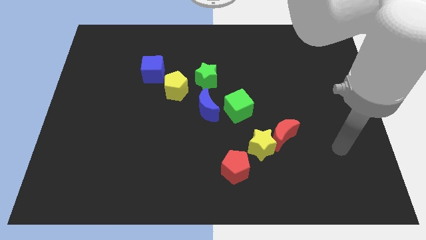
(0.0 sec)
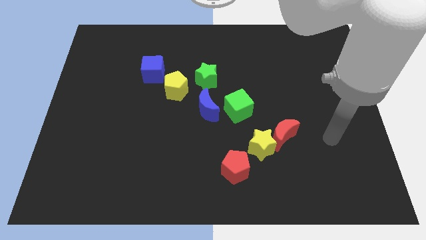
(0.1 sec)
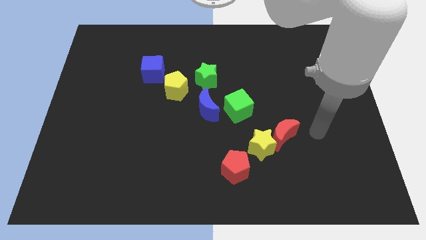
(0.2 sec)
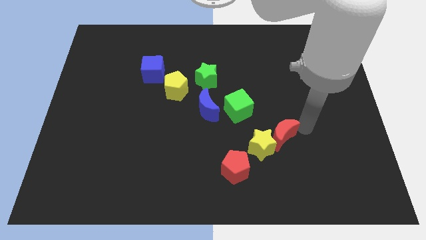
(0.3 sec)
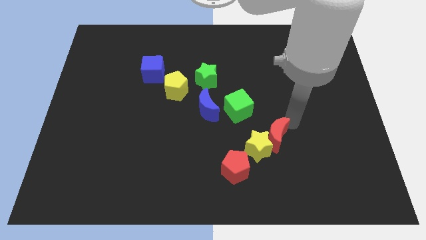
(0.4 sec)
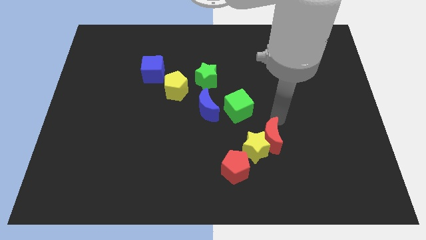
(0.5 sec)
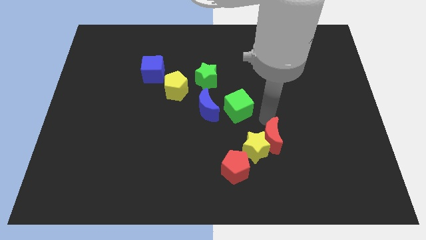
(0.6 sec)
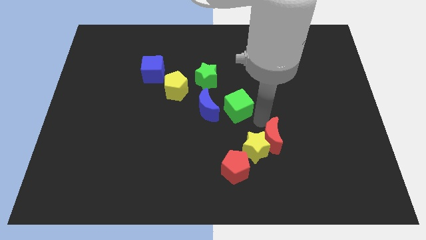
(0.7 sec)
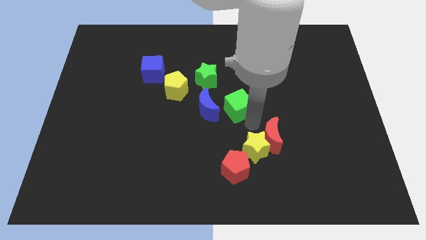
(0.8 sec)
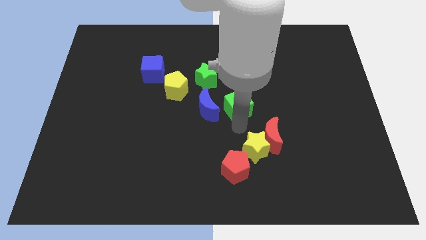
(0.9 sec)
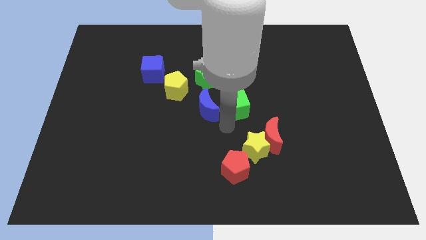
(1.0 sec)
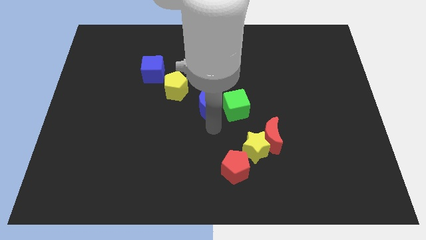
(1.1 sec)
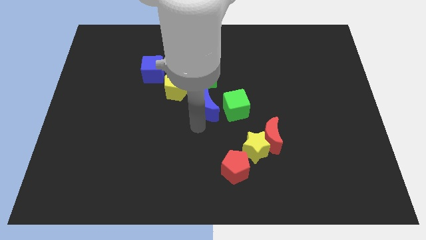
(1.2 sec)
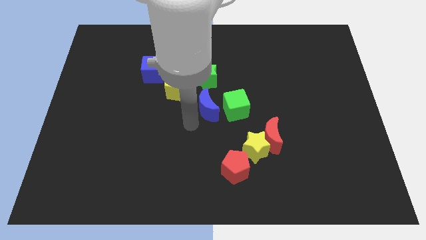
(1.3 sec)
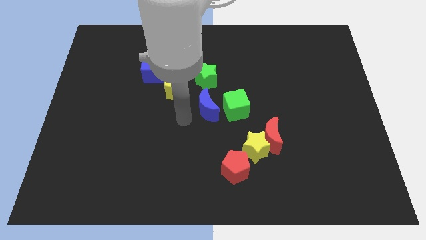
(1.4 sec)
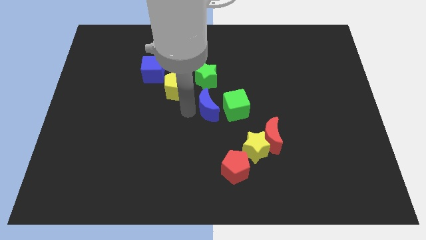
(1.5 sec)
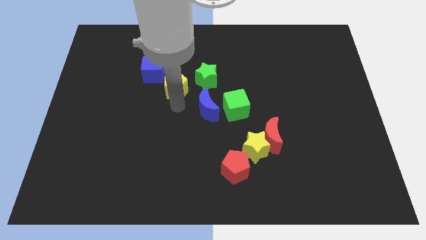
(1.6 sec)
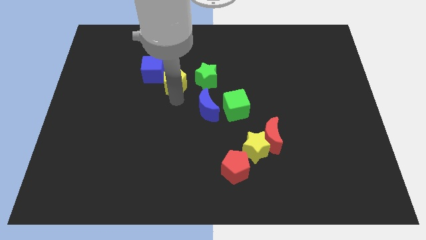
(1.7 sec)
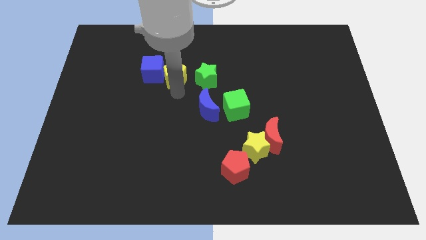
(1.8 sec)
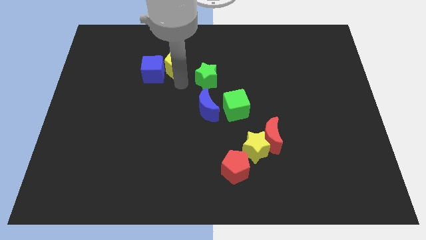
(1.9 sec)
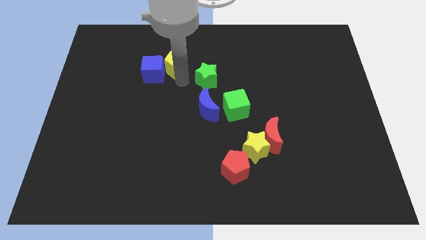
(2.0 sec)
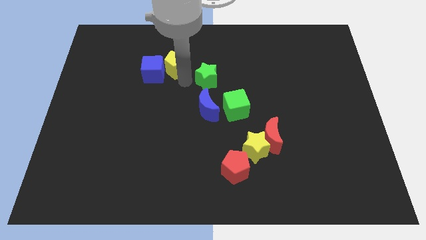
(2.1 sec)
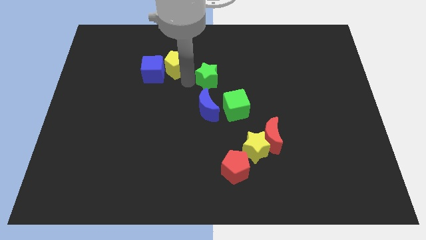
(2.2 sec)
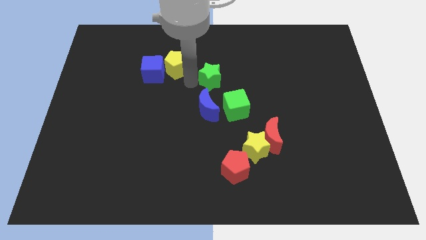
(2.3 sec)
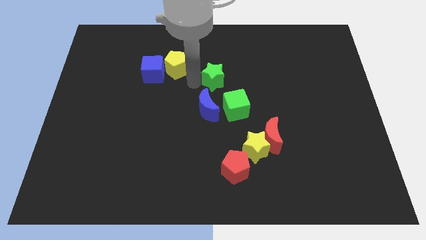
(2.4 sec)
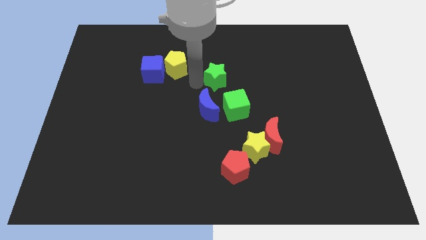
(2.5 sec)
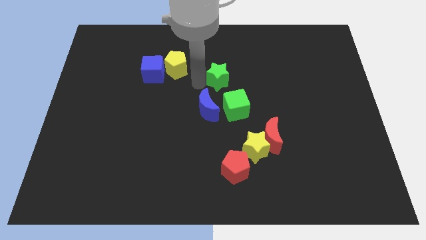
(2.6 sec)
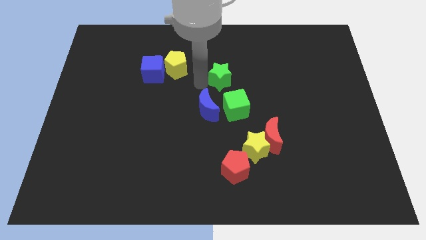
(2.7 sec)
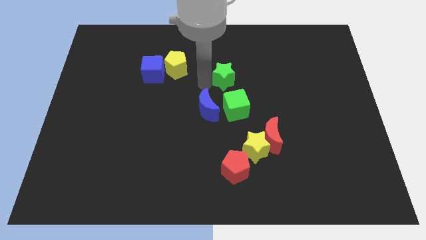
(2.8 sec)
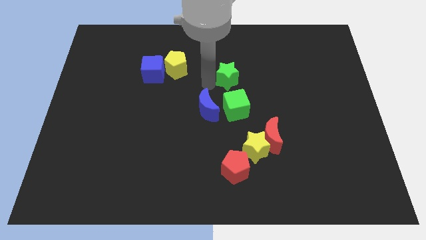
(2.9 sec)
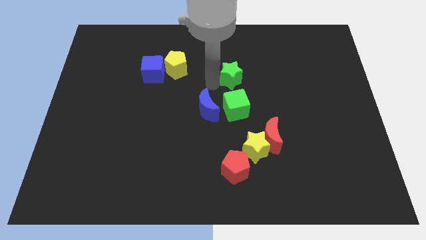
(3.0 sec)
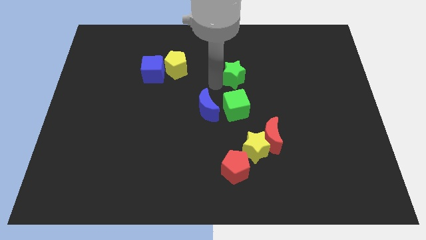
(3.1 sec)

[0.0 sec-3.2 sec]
move the green star a bit right

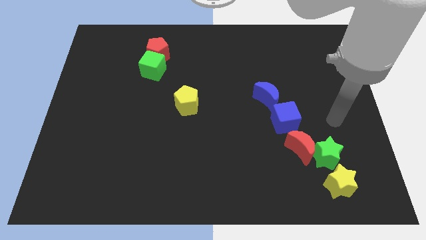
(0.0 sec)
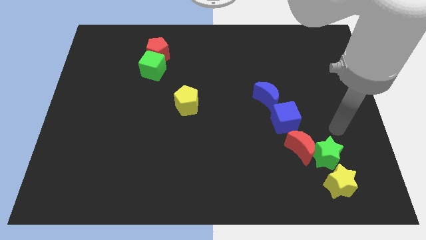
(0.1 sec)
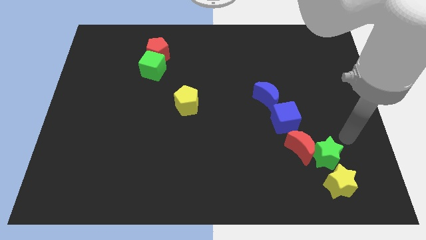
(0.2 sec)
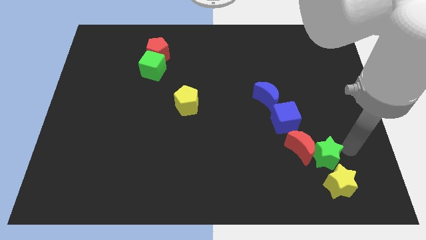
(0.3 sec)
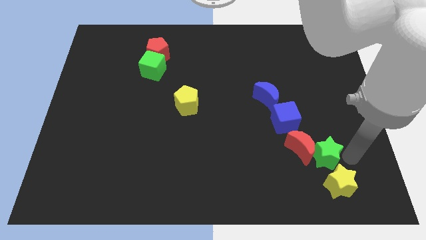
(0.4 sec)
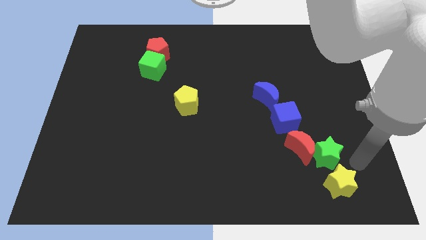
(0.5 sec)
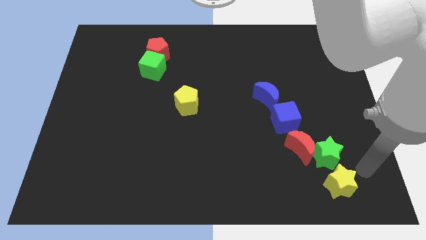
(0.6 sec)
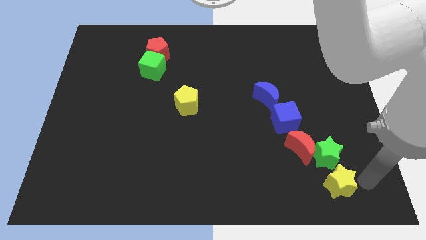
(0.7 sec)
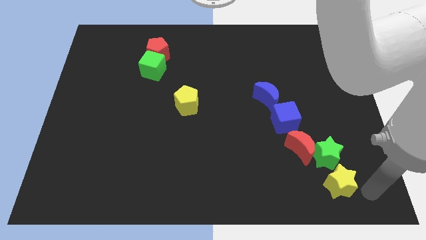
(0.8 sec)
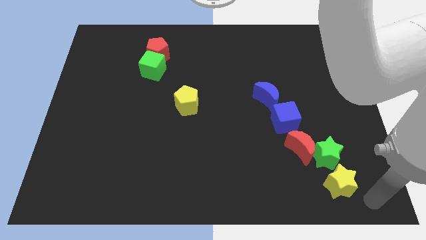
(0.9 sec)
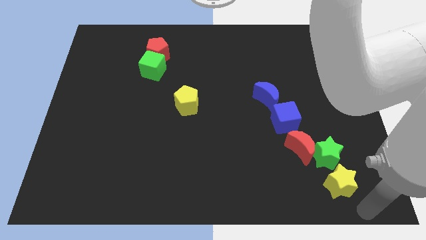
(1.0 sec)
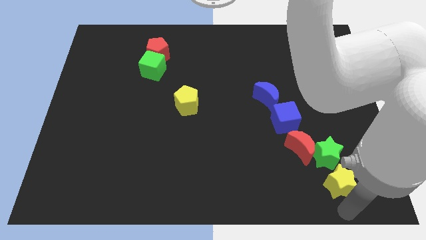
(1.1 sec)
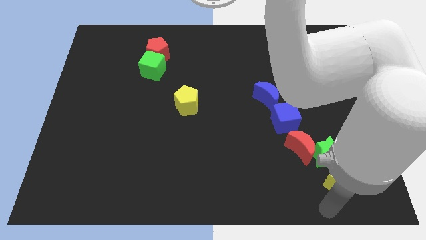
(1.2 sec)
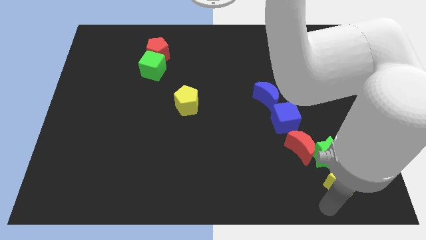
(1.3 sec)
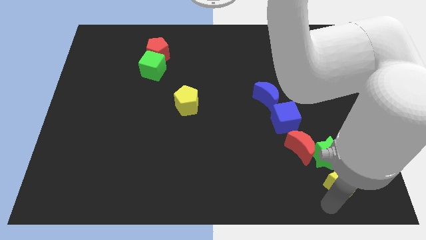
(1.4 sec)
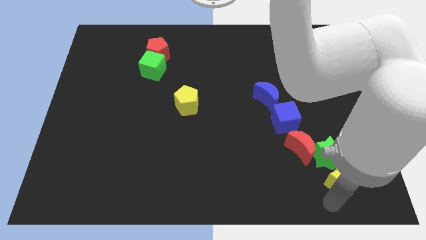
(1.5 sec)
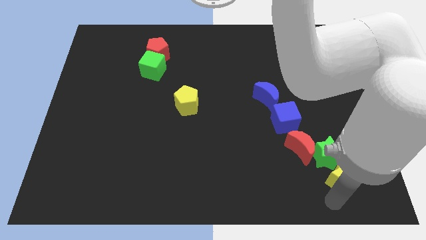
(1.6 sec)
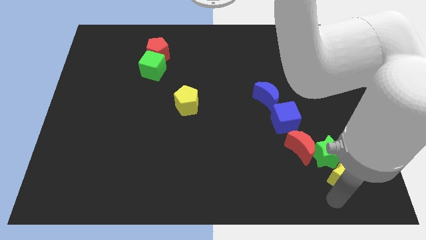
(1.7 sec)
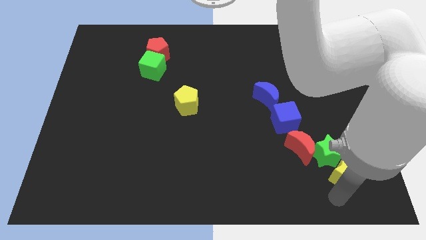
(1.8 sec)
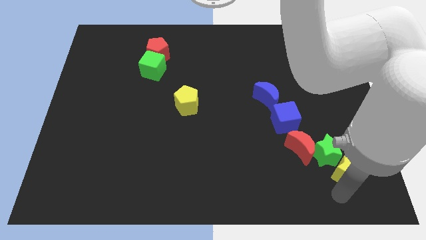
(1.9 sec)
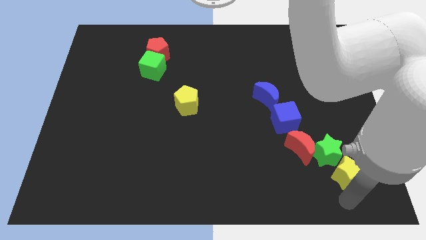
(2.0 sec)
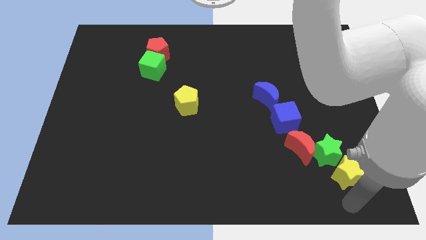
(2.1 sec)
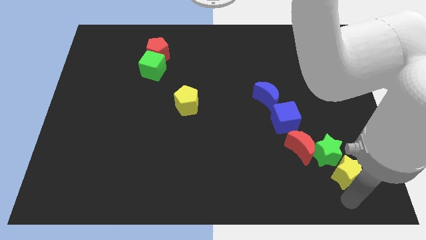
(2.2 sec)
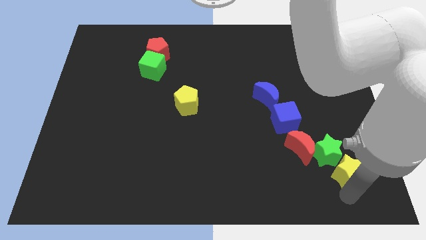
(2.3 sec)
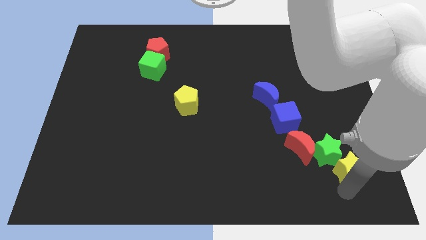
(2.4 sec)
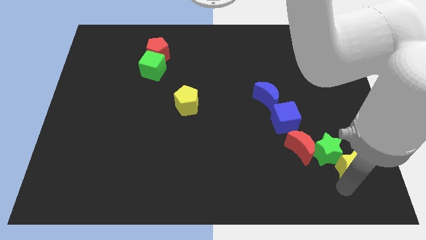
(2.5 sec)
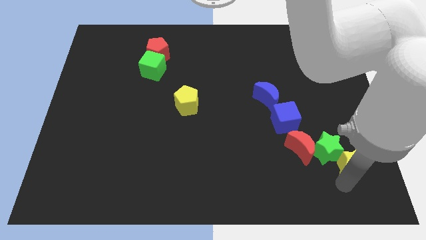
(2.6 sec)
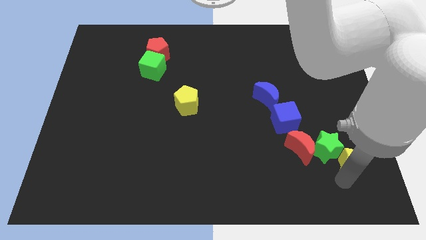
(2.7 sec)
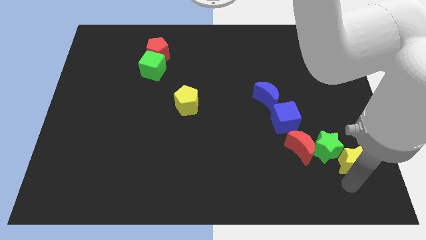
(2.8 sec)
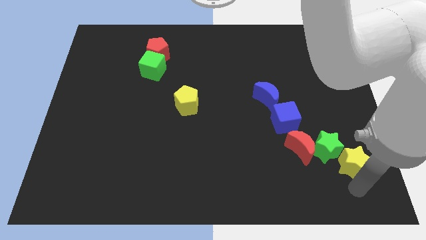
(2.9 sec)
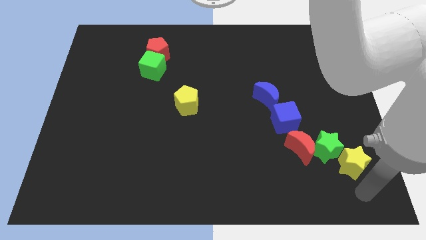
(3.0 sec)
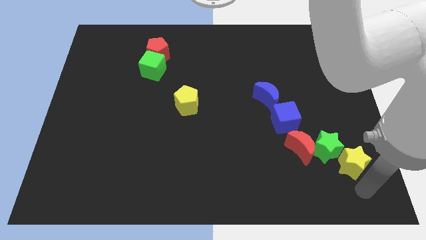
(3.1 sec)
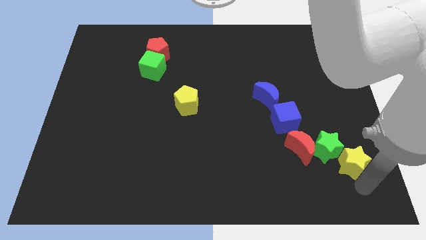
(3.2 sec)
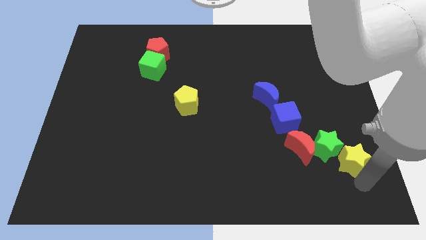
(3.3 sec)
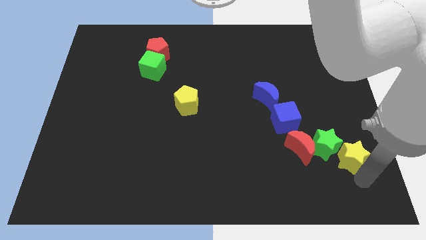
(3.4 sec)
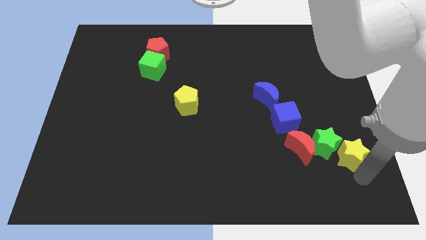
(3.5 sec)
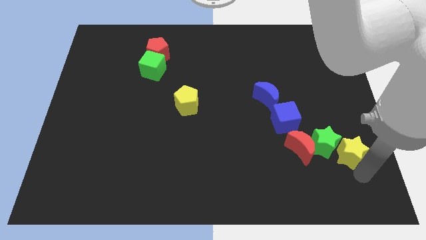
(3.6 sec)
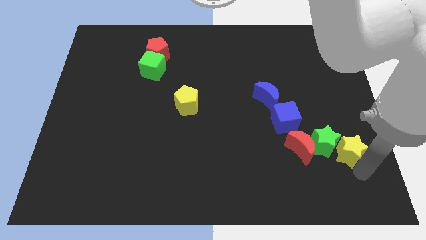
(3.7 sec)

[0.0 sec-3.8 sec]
slide the yellow star a little bit up

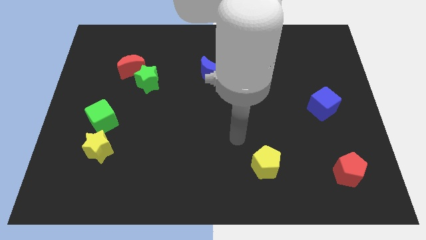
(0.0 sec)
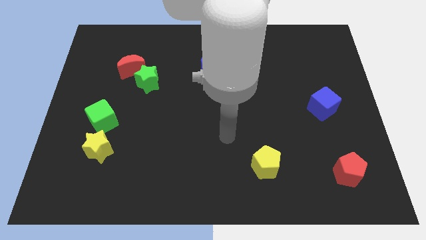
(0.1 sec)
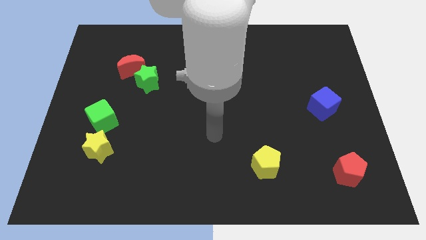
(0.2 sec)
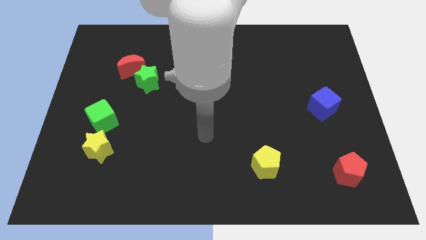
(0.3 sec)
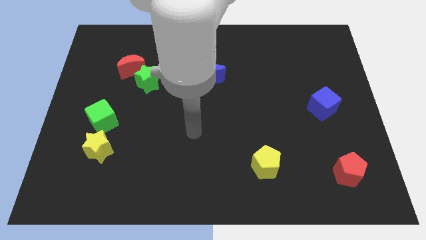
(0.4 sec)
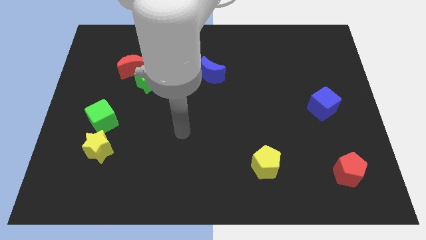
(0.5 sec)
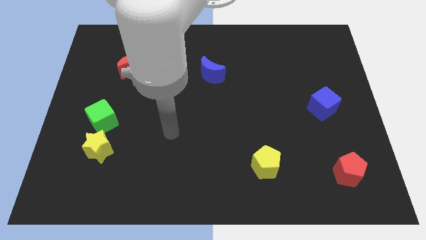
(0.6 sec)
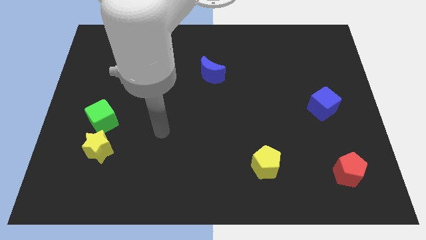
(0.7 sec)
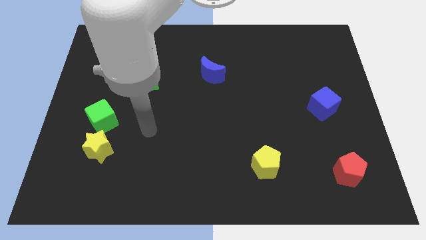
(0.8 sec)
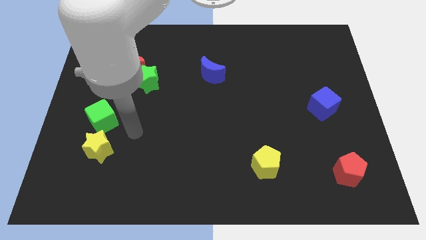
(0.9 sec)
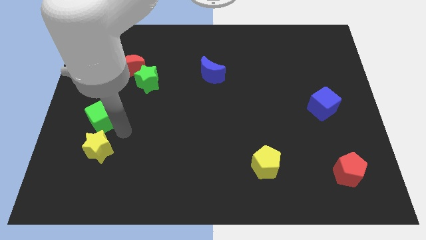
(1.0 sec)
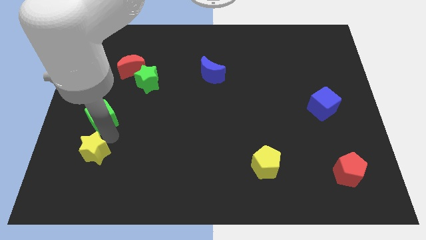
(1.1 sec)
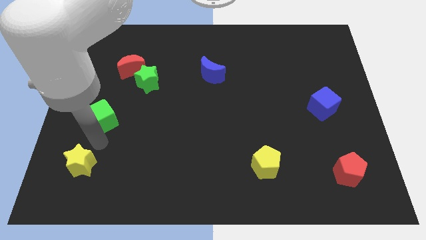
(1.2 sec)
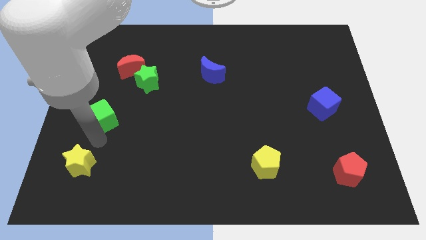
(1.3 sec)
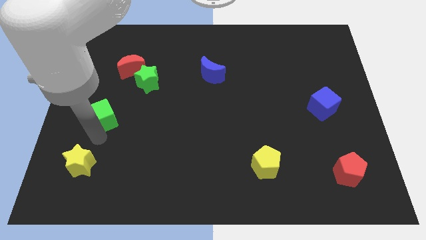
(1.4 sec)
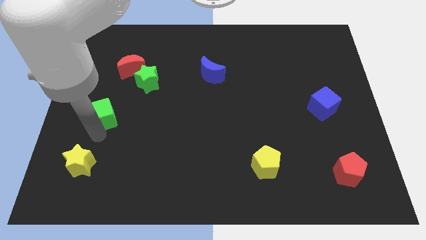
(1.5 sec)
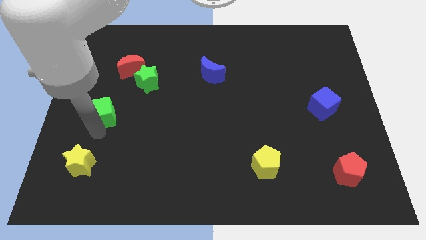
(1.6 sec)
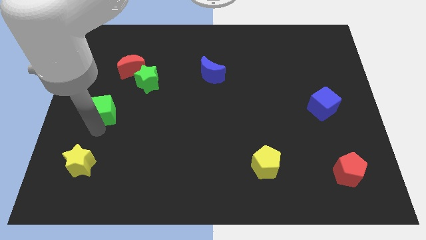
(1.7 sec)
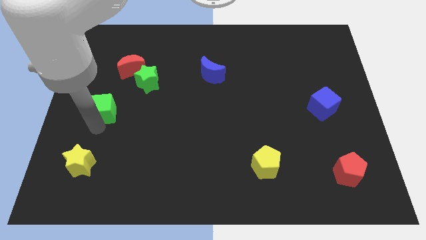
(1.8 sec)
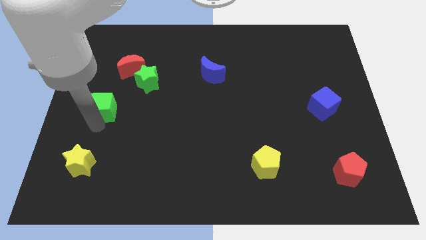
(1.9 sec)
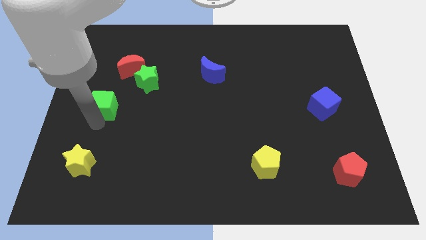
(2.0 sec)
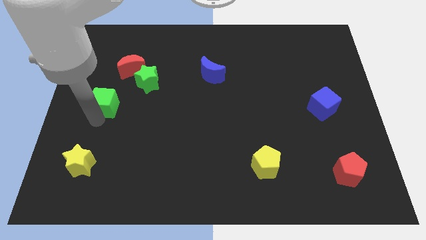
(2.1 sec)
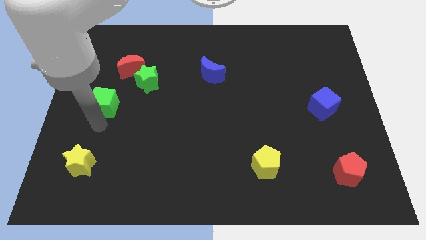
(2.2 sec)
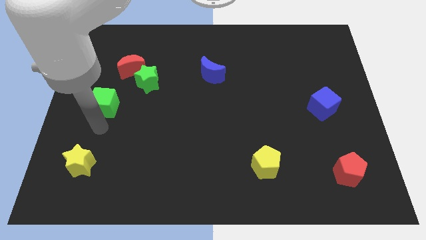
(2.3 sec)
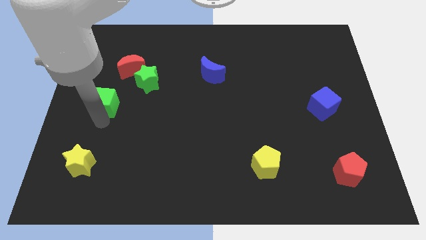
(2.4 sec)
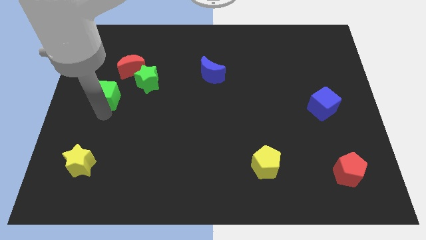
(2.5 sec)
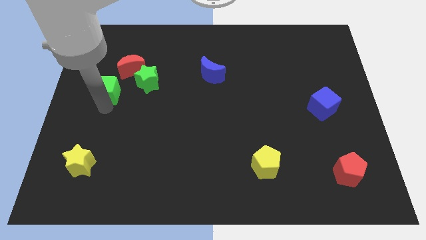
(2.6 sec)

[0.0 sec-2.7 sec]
slightly move the green cube upwards
